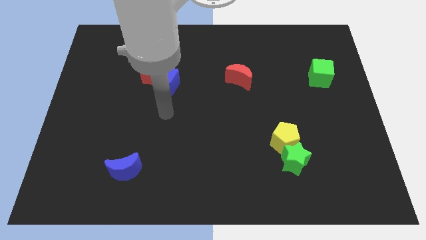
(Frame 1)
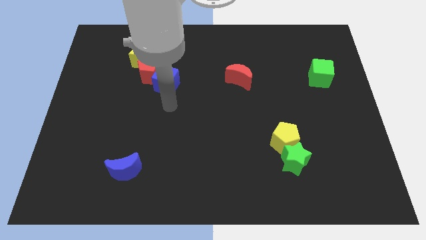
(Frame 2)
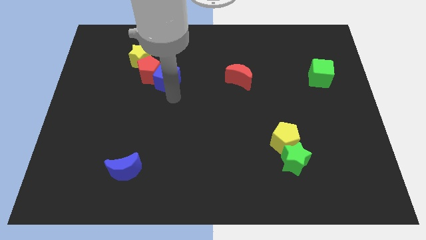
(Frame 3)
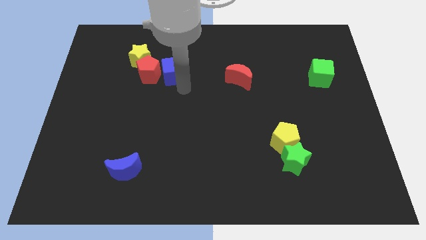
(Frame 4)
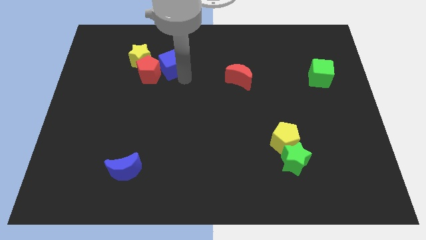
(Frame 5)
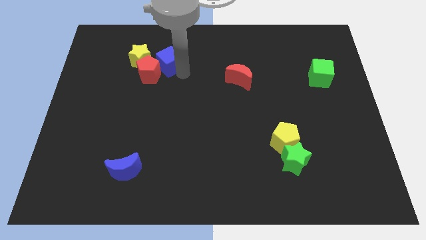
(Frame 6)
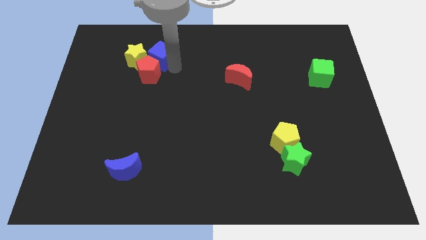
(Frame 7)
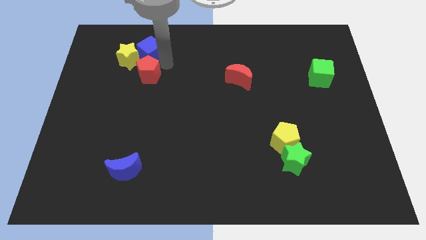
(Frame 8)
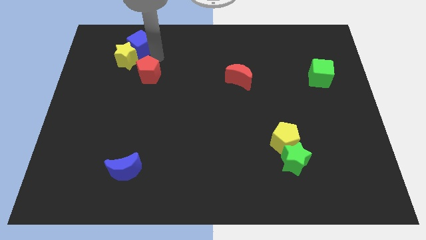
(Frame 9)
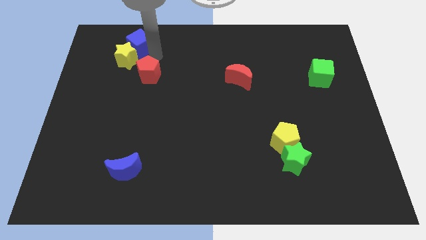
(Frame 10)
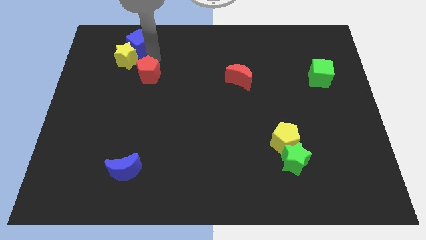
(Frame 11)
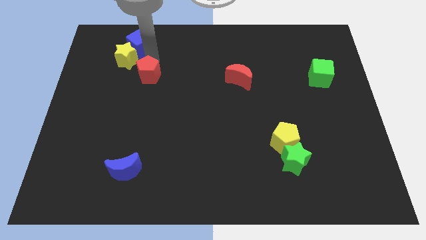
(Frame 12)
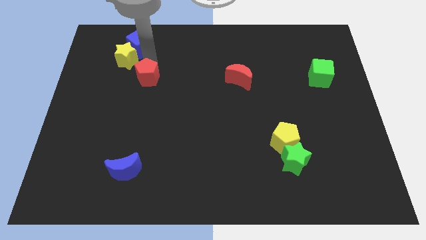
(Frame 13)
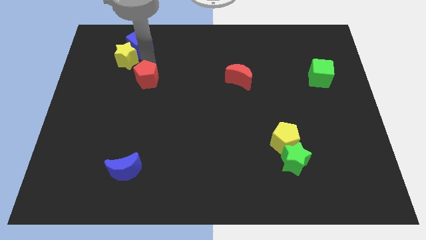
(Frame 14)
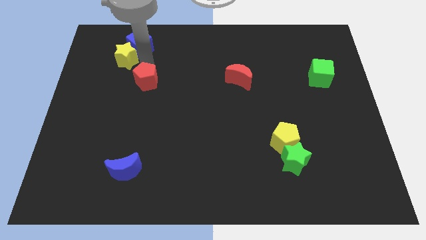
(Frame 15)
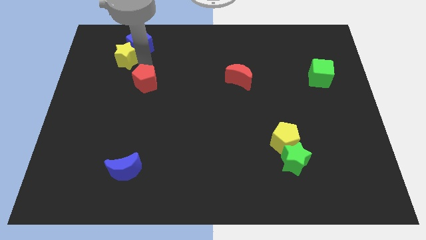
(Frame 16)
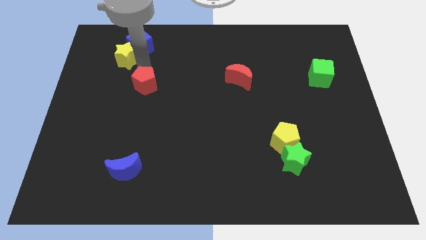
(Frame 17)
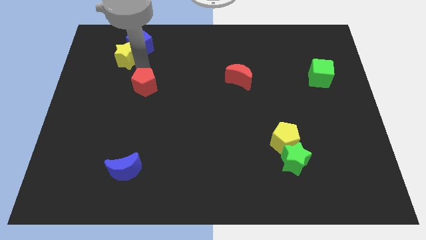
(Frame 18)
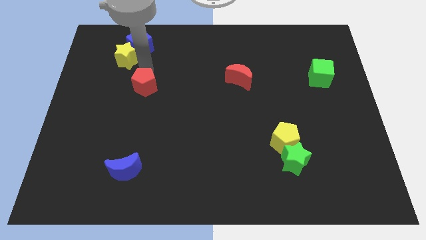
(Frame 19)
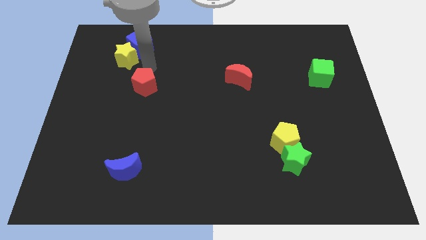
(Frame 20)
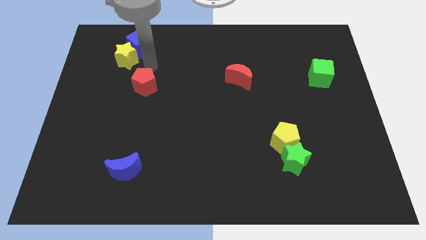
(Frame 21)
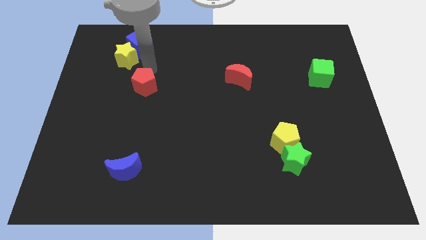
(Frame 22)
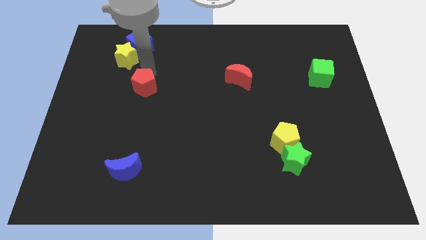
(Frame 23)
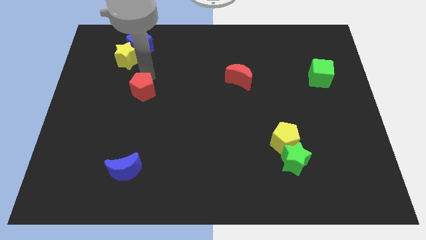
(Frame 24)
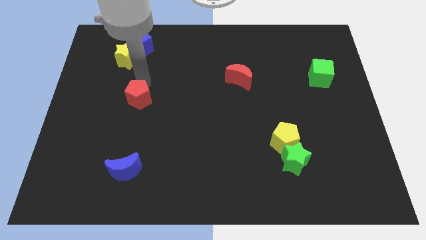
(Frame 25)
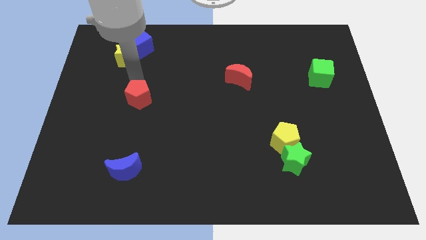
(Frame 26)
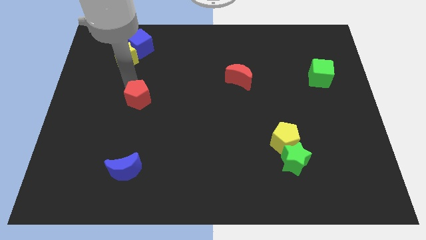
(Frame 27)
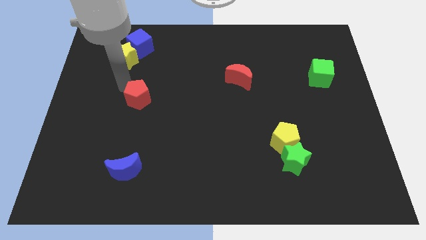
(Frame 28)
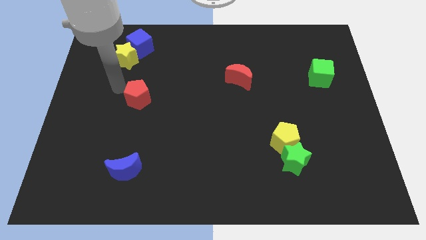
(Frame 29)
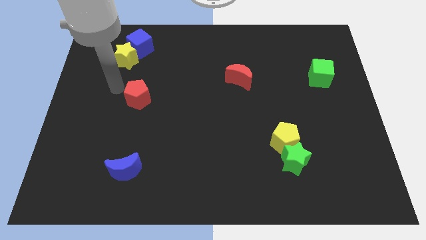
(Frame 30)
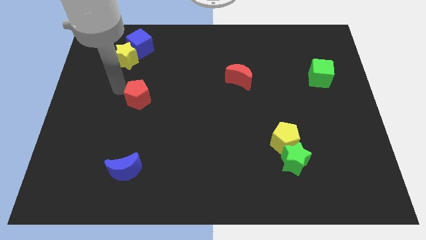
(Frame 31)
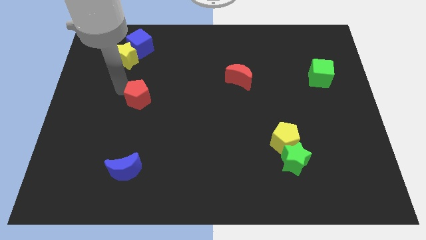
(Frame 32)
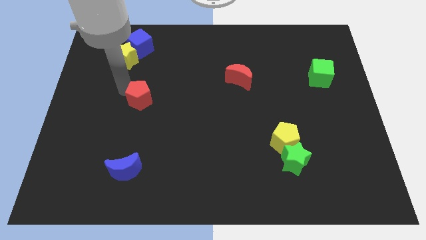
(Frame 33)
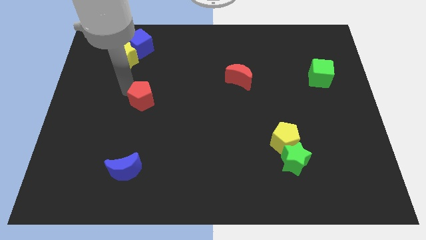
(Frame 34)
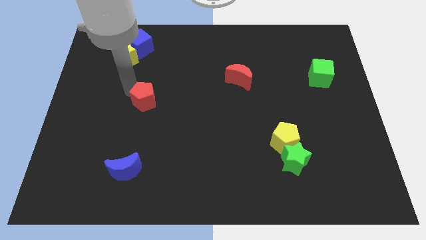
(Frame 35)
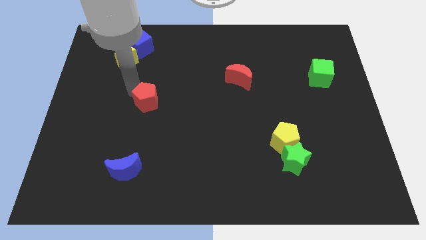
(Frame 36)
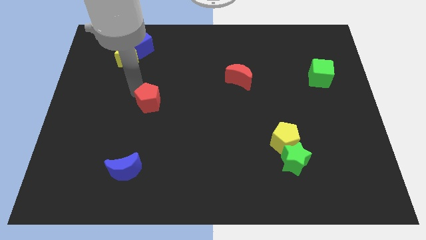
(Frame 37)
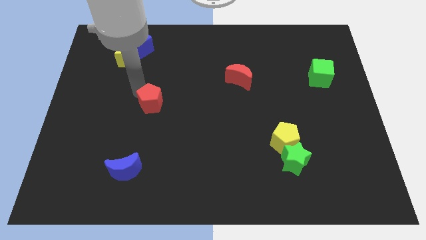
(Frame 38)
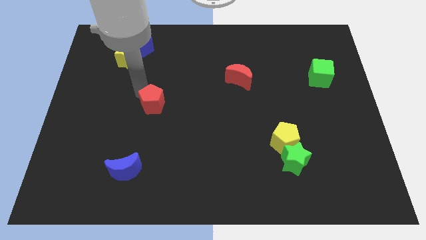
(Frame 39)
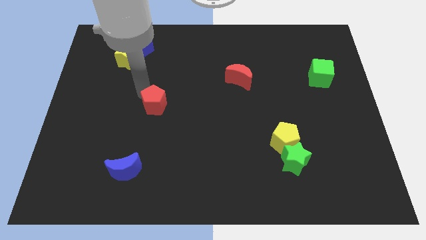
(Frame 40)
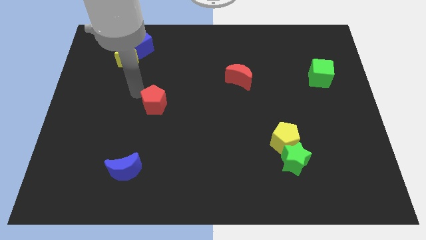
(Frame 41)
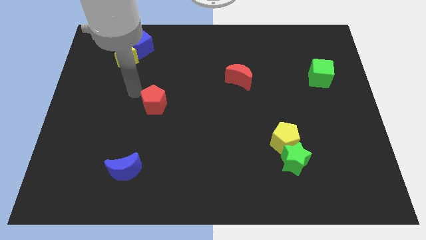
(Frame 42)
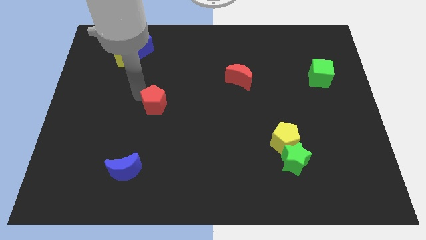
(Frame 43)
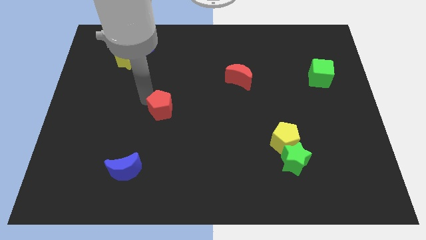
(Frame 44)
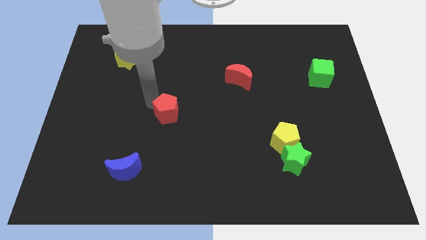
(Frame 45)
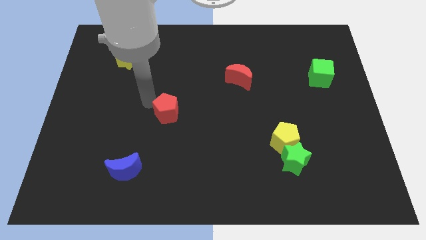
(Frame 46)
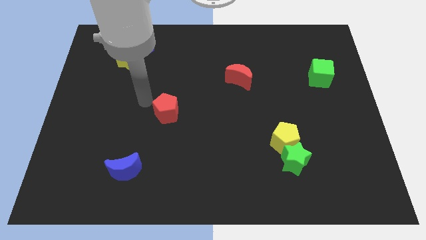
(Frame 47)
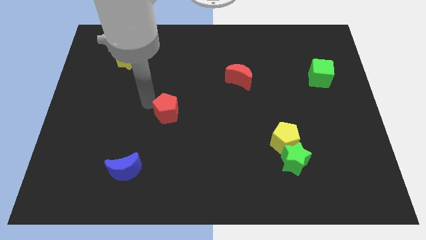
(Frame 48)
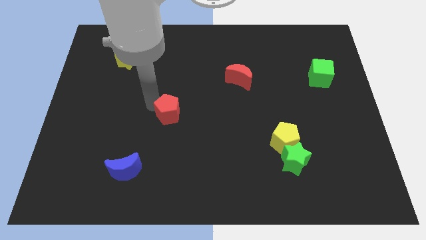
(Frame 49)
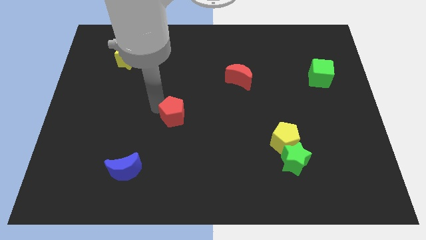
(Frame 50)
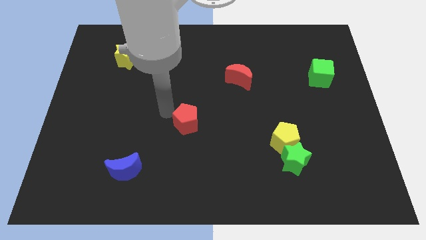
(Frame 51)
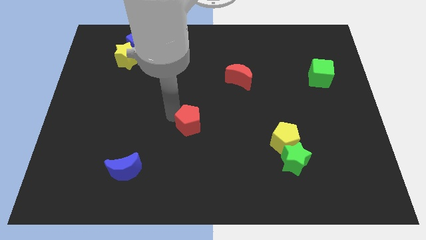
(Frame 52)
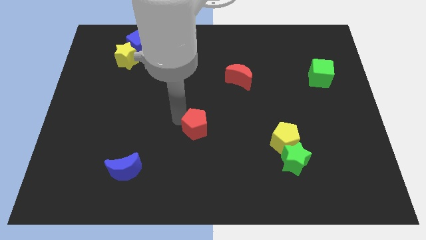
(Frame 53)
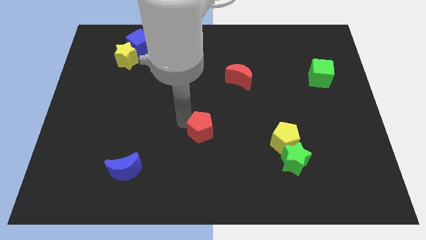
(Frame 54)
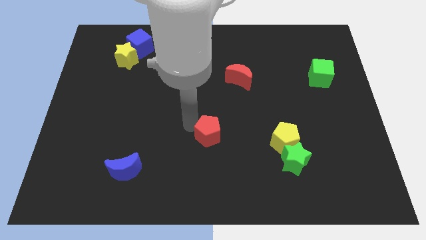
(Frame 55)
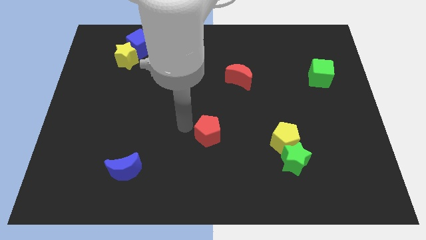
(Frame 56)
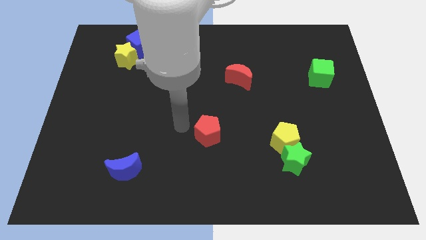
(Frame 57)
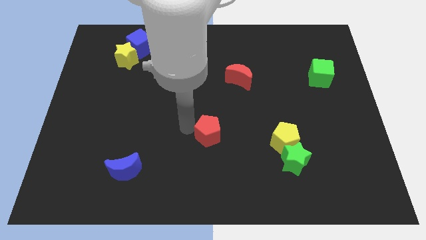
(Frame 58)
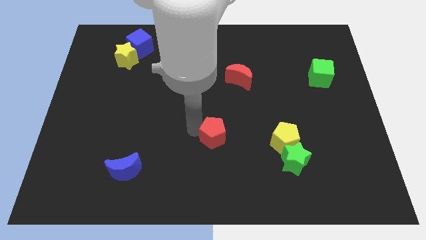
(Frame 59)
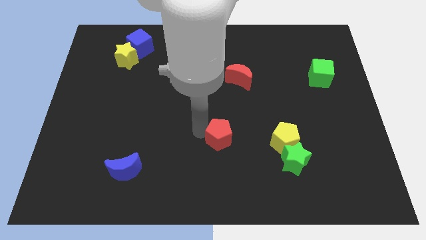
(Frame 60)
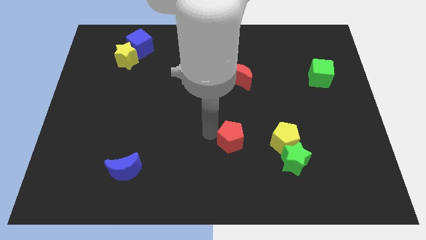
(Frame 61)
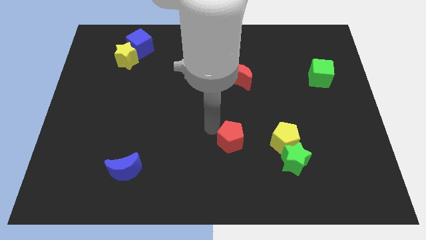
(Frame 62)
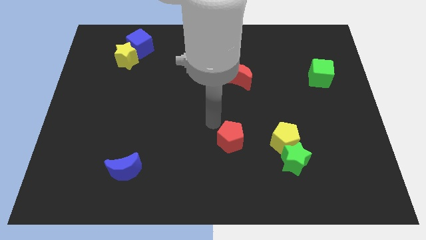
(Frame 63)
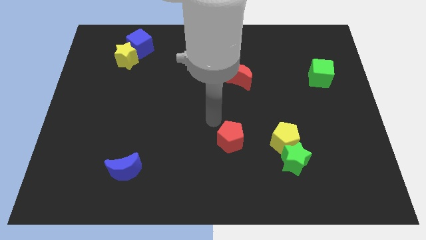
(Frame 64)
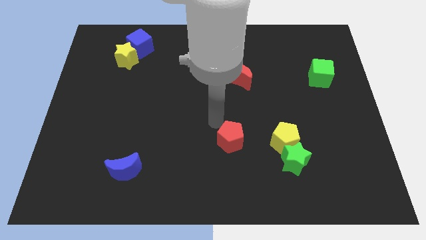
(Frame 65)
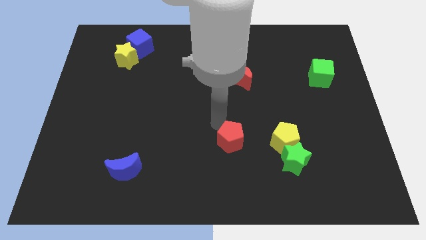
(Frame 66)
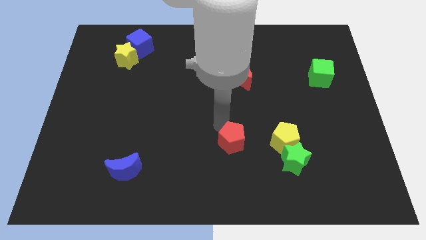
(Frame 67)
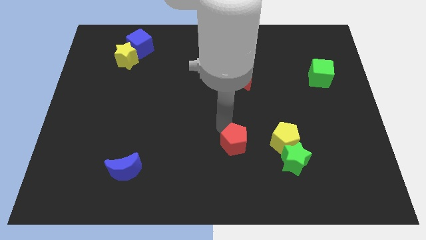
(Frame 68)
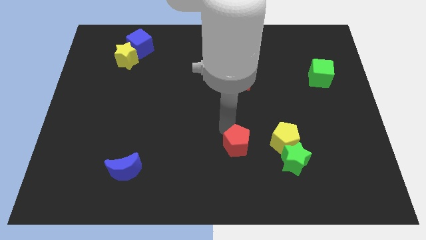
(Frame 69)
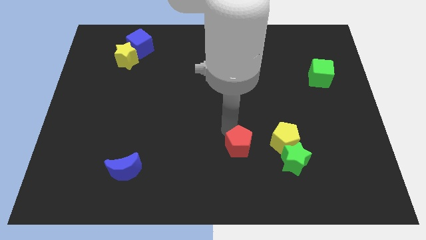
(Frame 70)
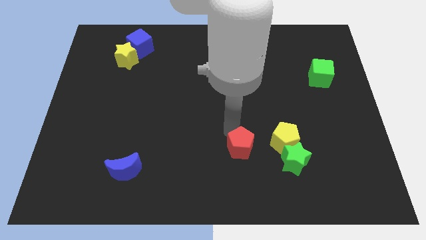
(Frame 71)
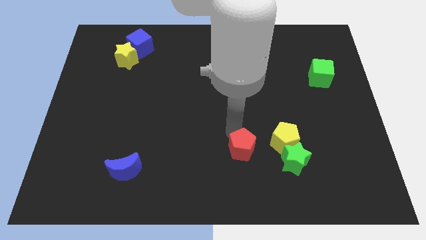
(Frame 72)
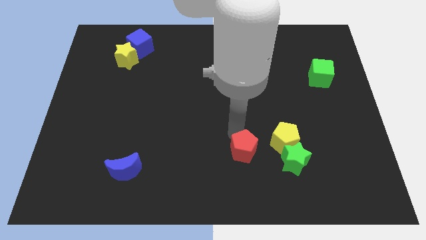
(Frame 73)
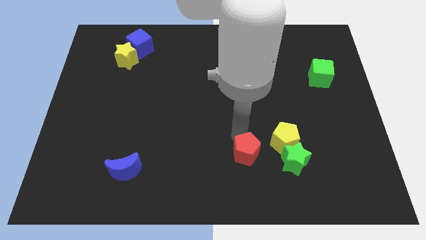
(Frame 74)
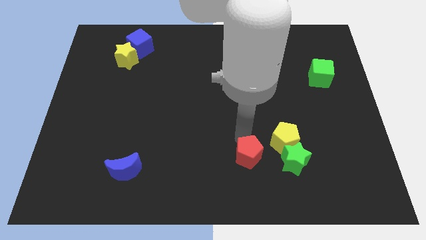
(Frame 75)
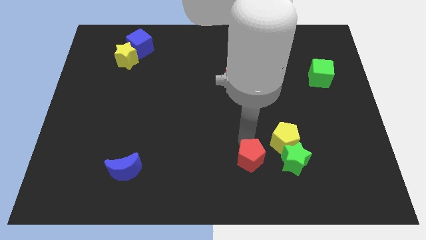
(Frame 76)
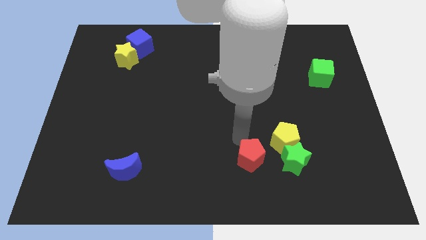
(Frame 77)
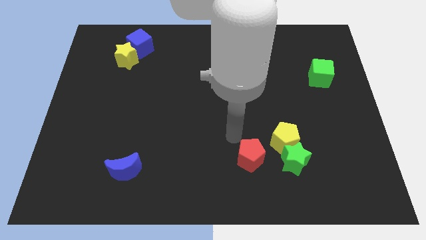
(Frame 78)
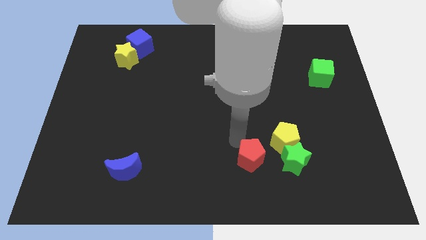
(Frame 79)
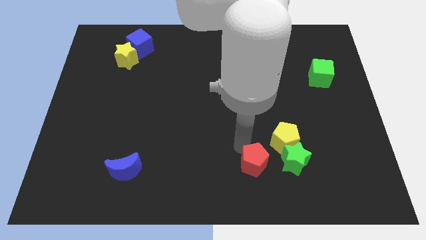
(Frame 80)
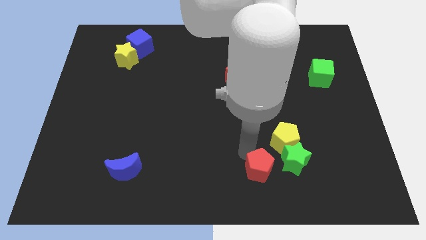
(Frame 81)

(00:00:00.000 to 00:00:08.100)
put the red pentagon diagonally down and to the left of the green star
